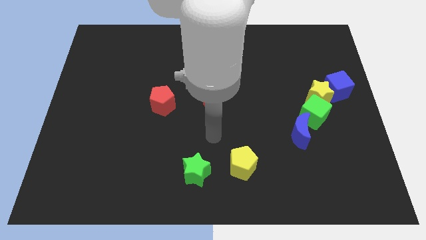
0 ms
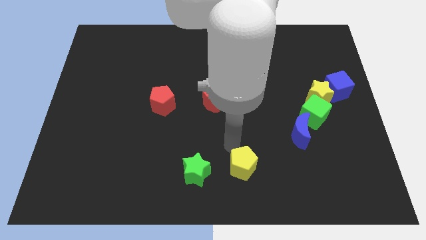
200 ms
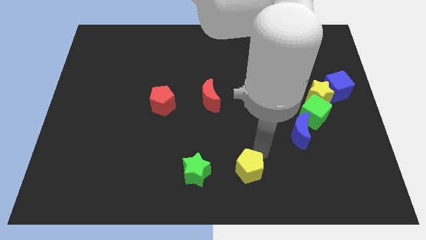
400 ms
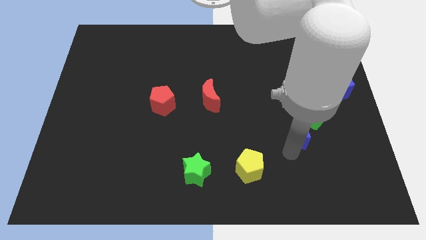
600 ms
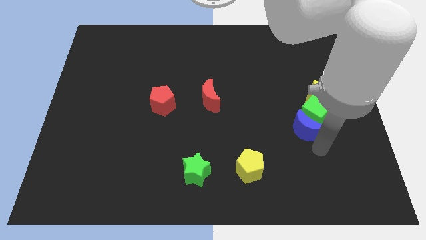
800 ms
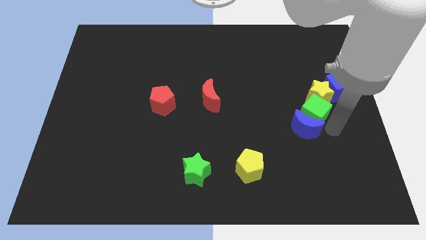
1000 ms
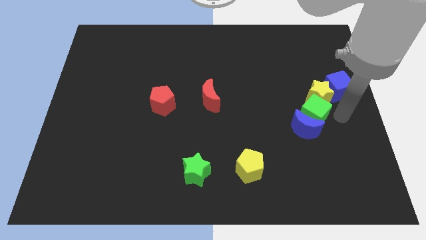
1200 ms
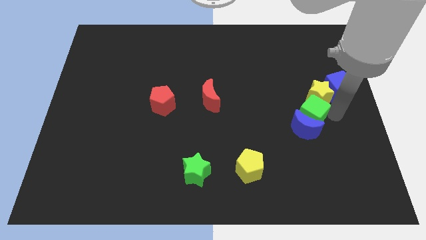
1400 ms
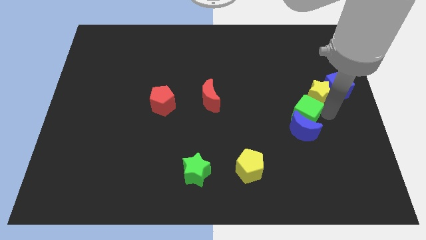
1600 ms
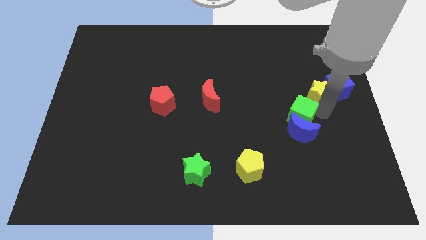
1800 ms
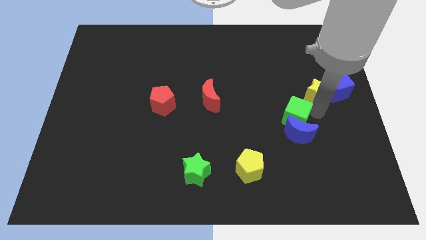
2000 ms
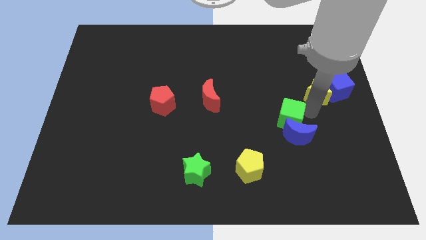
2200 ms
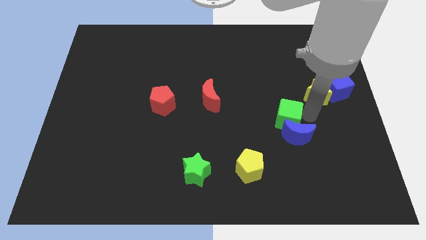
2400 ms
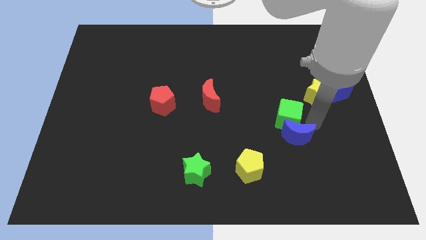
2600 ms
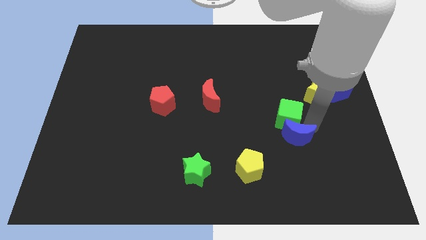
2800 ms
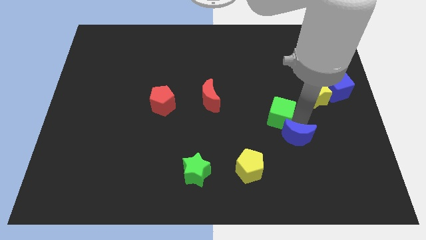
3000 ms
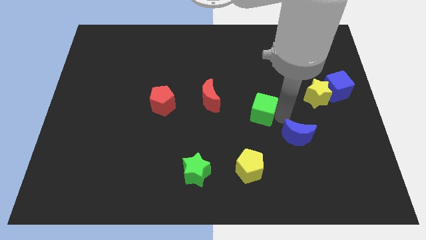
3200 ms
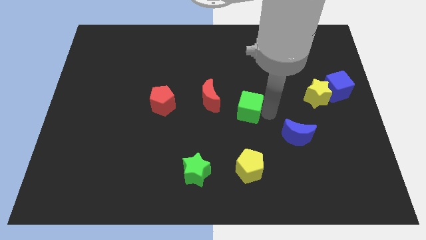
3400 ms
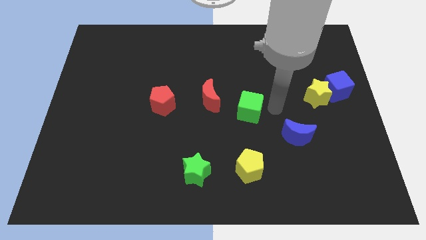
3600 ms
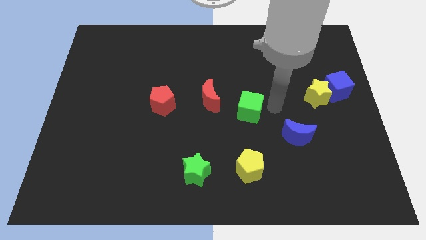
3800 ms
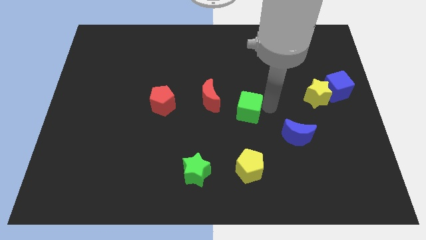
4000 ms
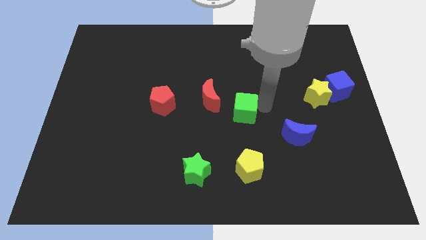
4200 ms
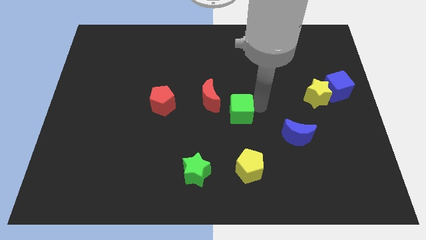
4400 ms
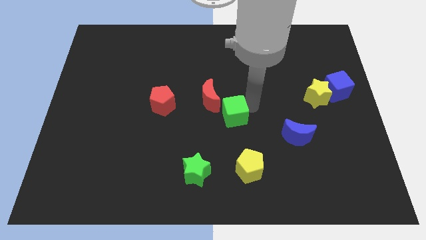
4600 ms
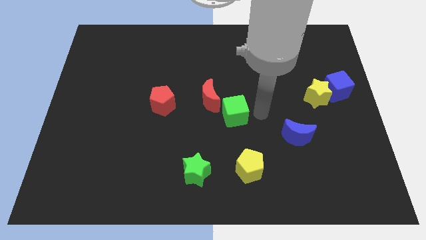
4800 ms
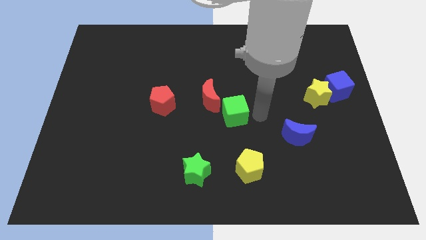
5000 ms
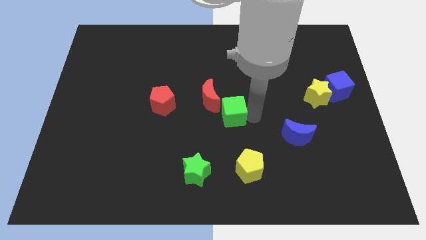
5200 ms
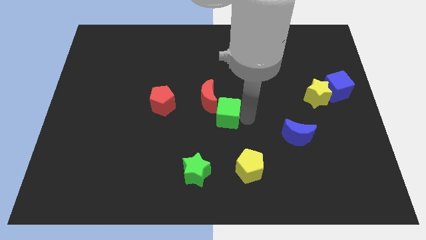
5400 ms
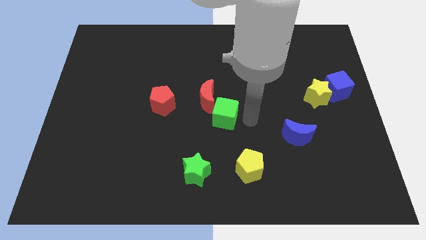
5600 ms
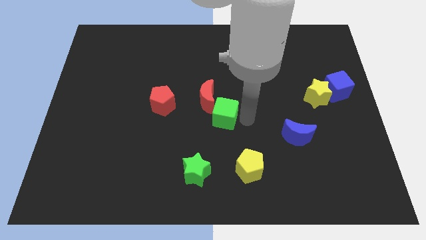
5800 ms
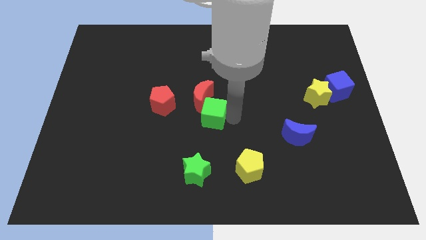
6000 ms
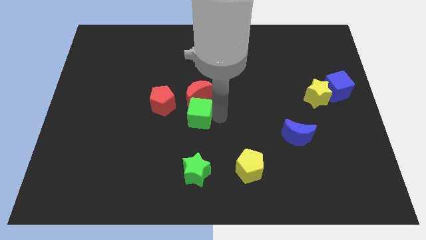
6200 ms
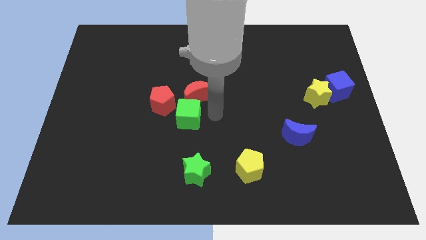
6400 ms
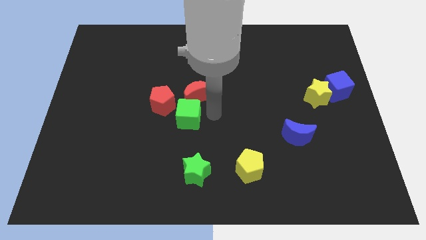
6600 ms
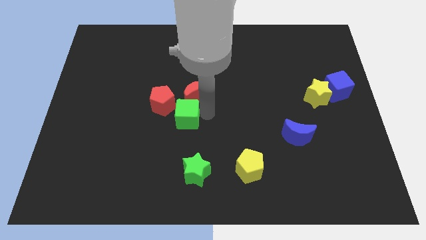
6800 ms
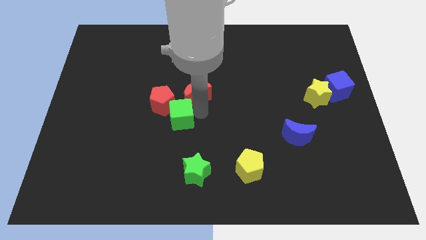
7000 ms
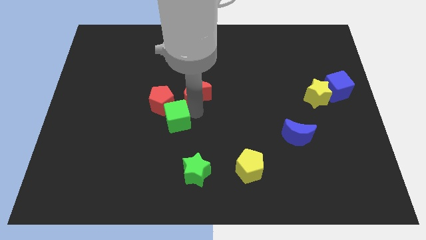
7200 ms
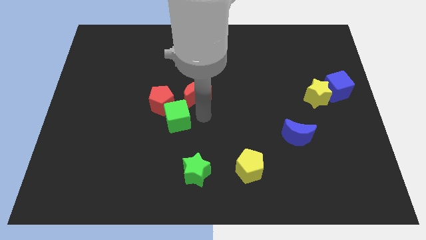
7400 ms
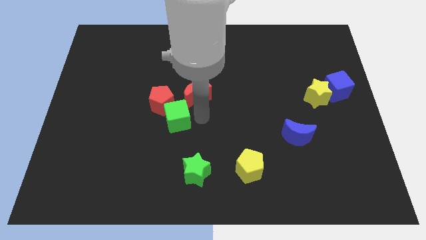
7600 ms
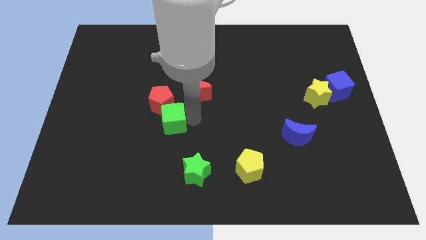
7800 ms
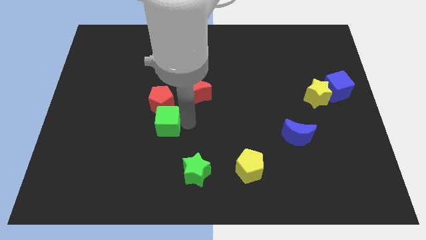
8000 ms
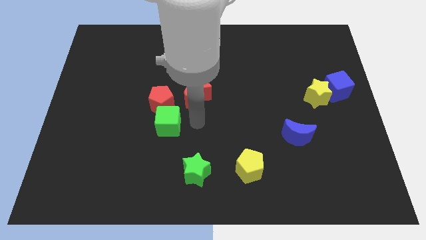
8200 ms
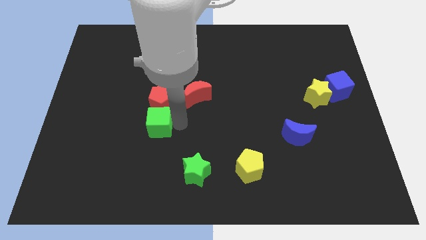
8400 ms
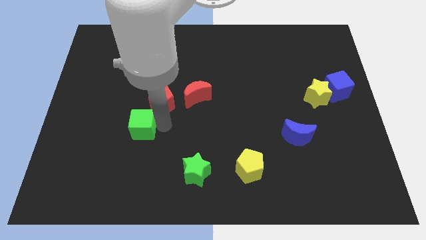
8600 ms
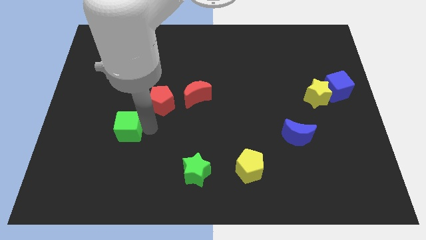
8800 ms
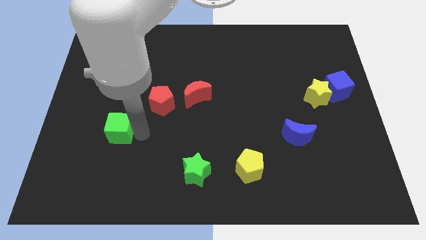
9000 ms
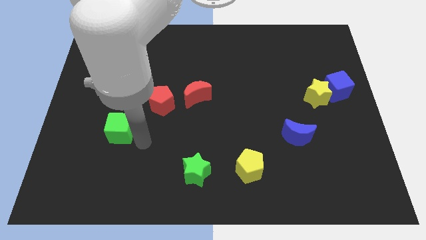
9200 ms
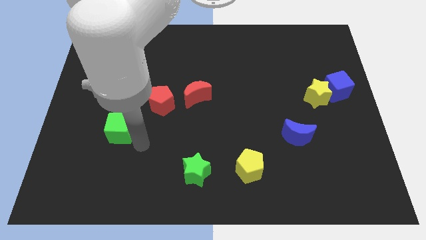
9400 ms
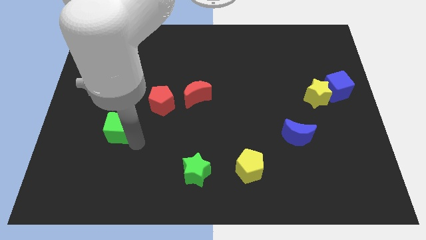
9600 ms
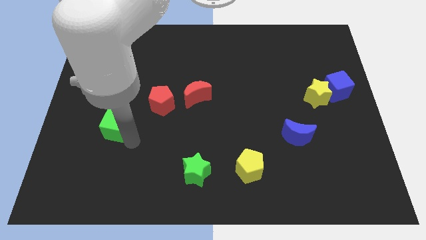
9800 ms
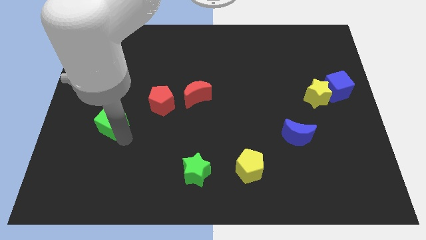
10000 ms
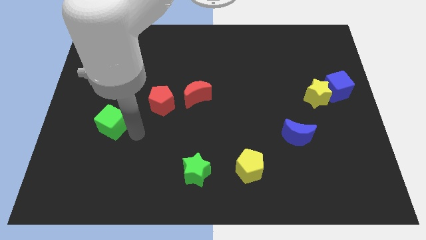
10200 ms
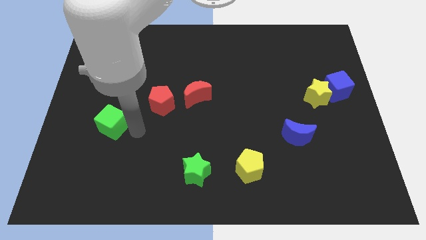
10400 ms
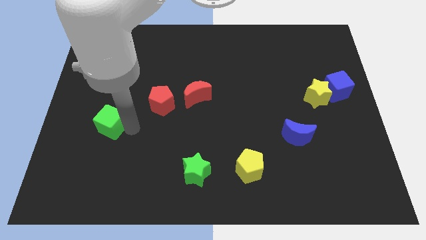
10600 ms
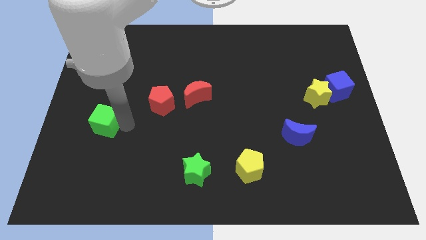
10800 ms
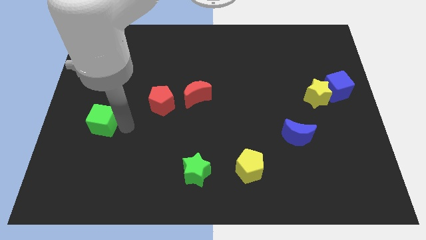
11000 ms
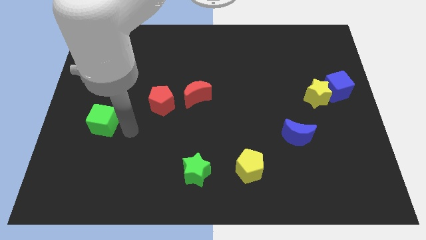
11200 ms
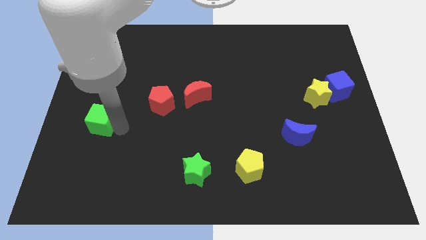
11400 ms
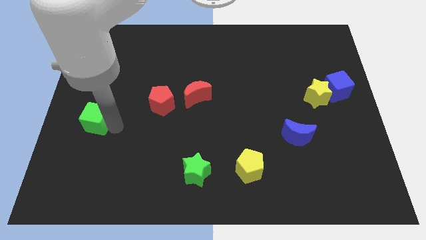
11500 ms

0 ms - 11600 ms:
push the green cube to the left side of the board
